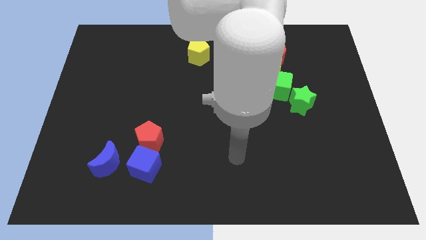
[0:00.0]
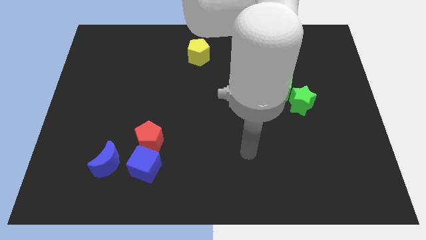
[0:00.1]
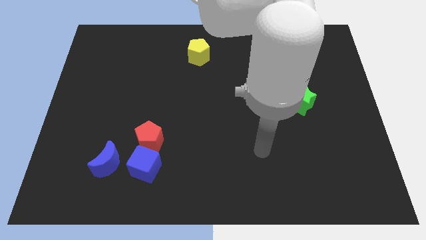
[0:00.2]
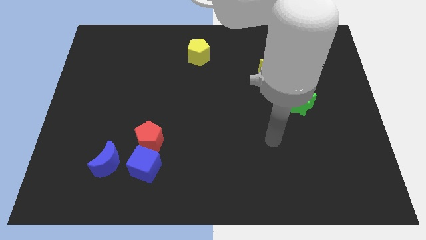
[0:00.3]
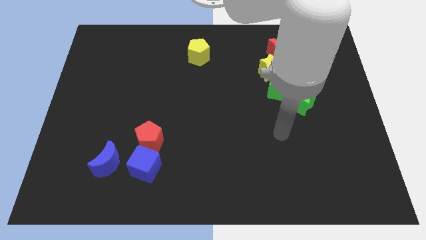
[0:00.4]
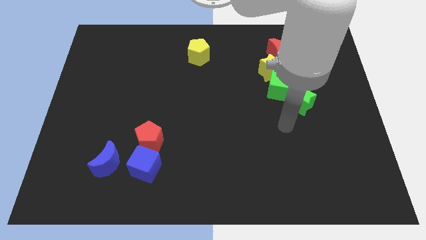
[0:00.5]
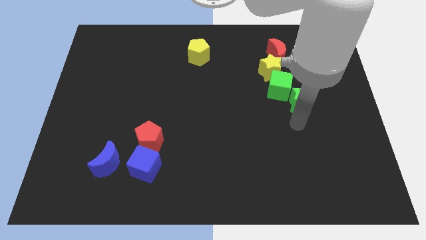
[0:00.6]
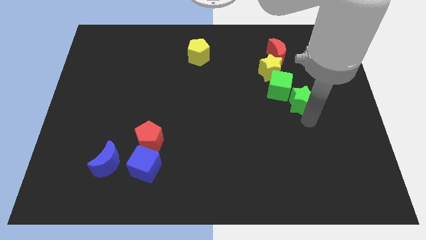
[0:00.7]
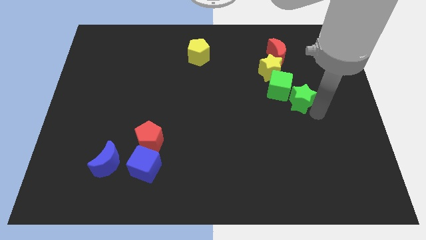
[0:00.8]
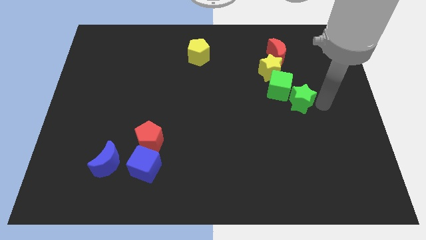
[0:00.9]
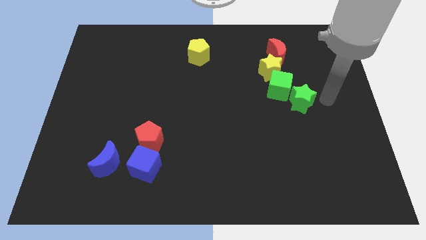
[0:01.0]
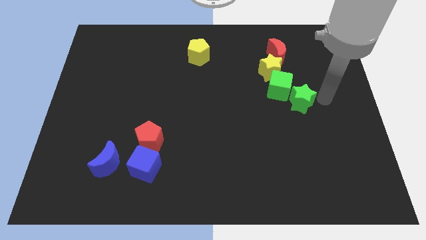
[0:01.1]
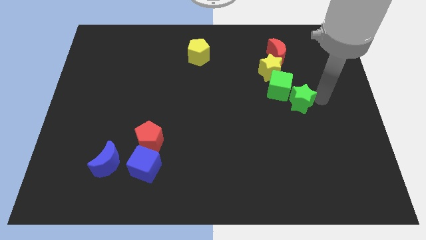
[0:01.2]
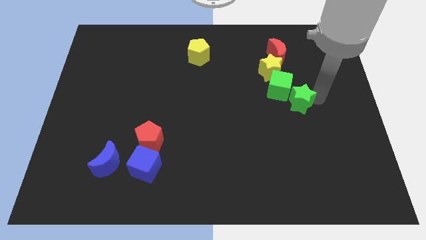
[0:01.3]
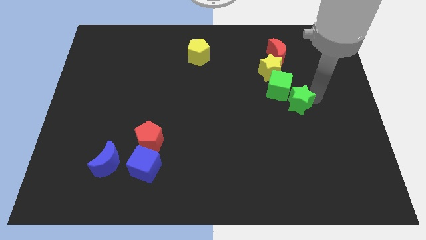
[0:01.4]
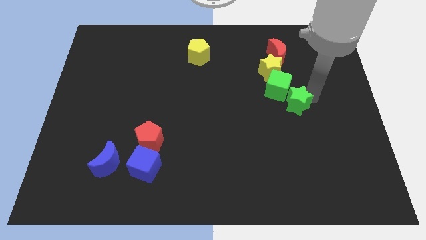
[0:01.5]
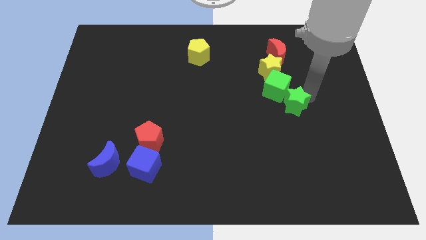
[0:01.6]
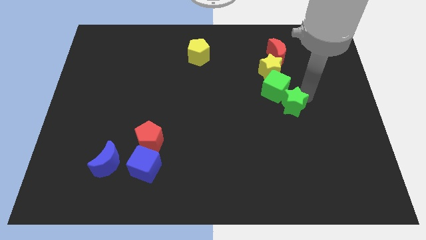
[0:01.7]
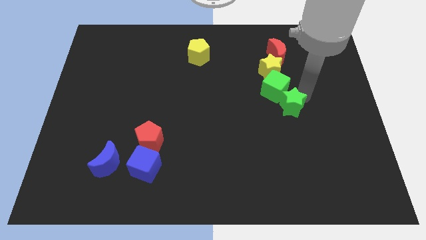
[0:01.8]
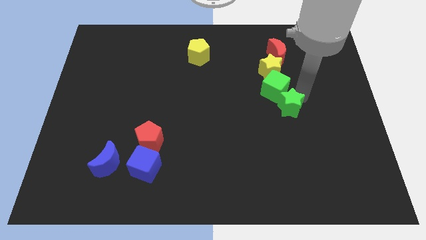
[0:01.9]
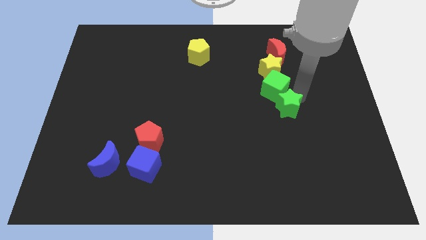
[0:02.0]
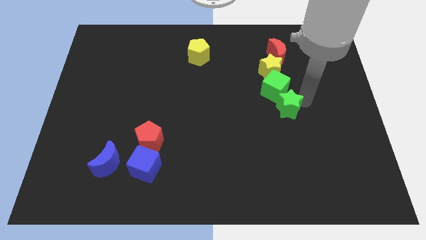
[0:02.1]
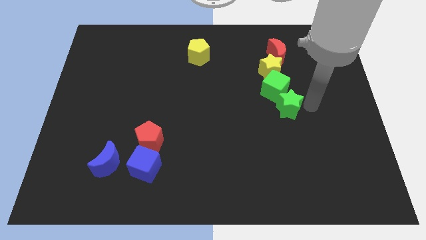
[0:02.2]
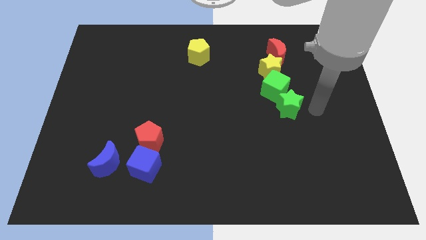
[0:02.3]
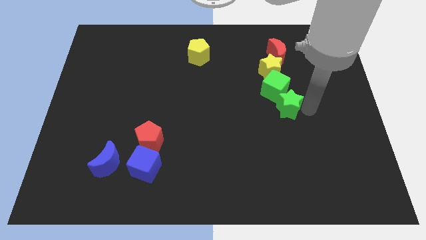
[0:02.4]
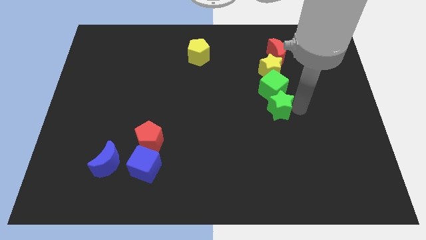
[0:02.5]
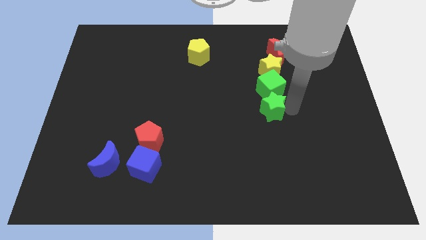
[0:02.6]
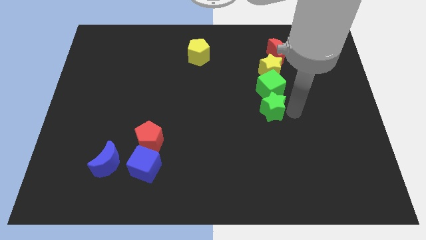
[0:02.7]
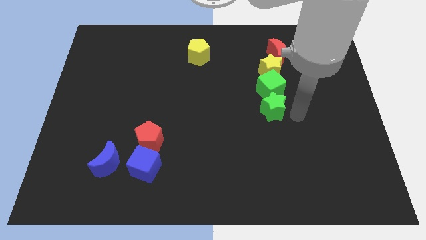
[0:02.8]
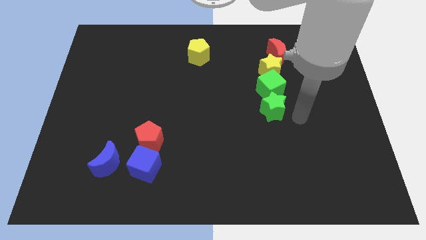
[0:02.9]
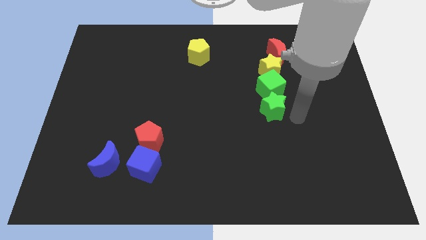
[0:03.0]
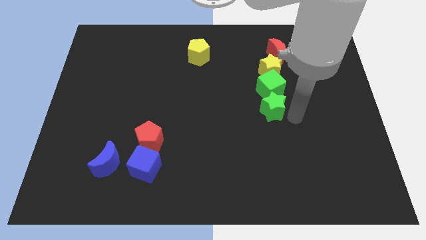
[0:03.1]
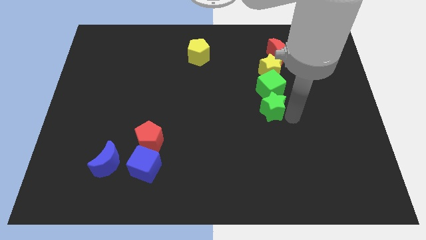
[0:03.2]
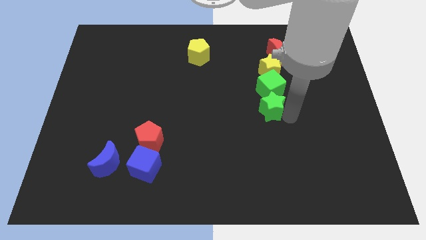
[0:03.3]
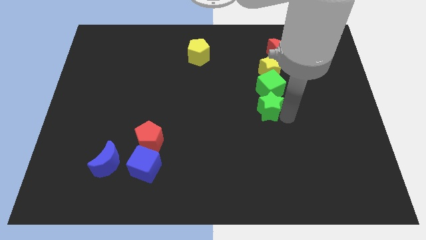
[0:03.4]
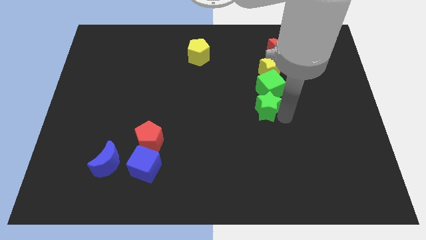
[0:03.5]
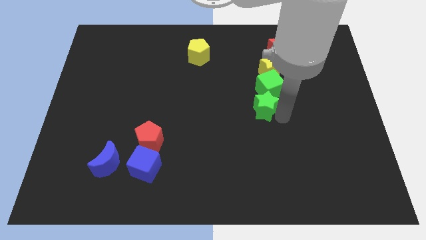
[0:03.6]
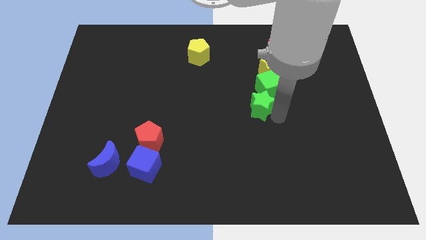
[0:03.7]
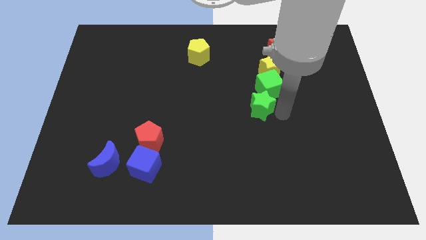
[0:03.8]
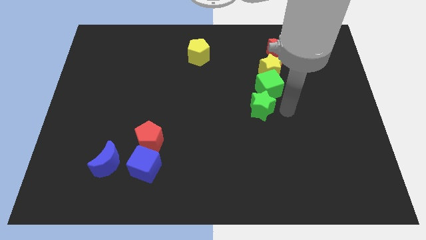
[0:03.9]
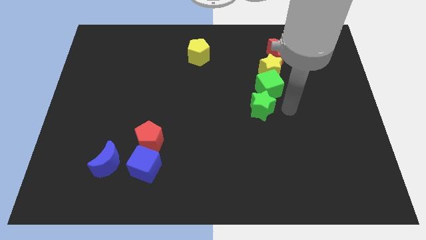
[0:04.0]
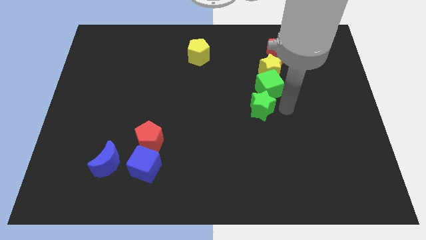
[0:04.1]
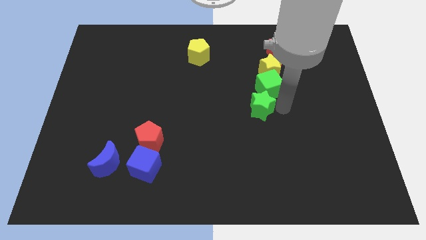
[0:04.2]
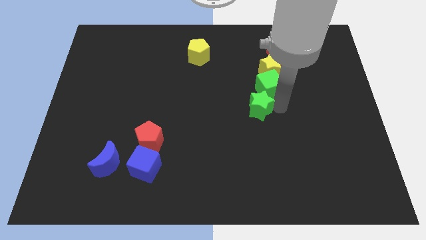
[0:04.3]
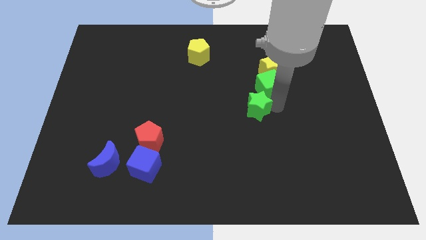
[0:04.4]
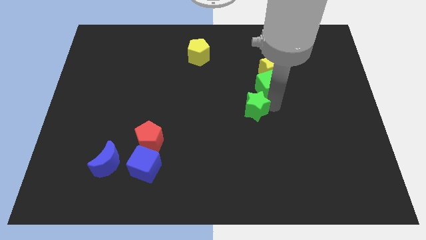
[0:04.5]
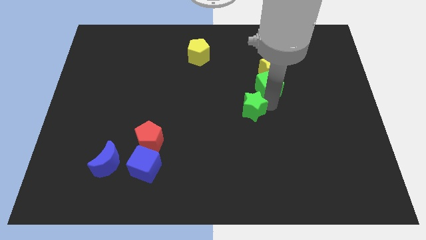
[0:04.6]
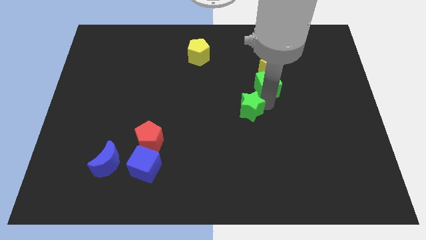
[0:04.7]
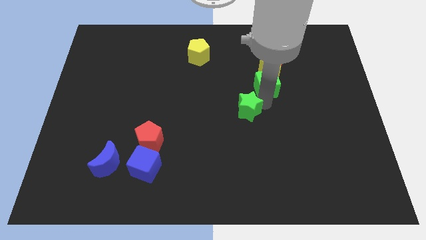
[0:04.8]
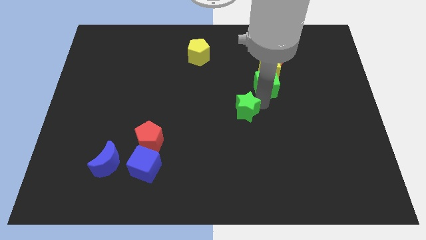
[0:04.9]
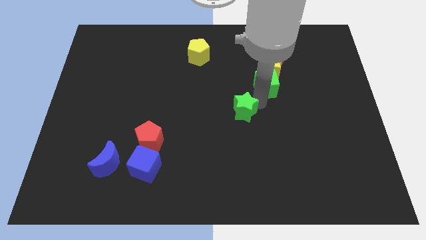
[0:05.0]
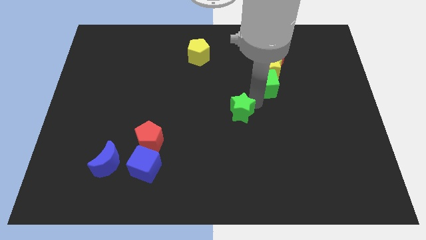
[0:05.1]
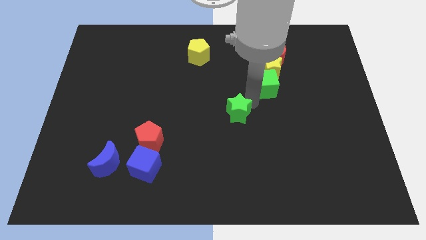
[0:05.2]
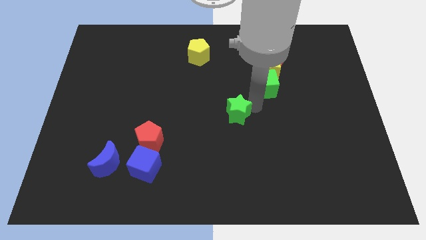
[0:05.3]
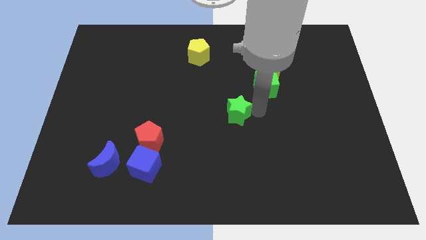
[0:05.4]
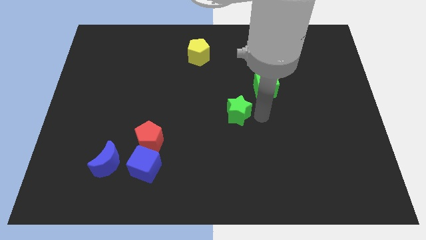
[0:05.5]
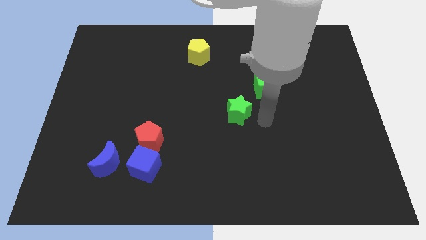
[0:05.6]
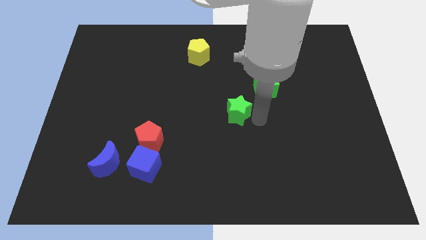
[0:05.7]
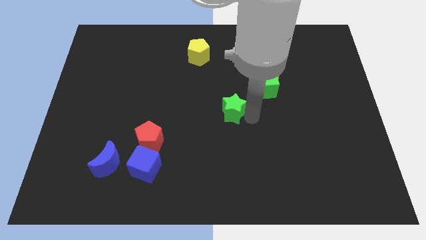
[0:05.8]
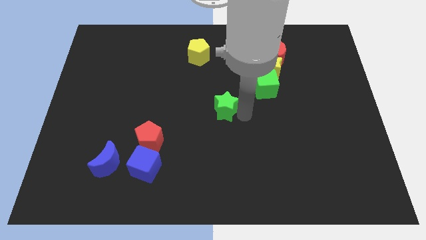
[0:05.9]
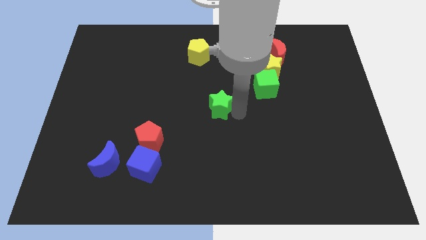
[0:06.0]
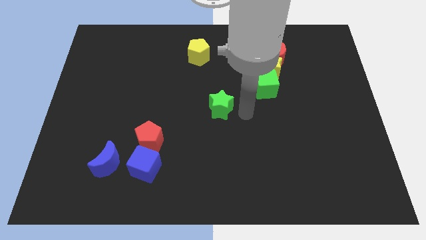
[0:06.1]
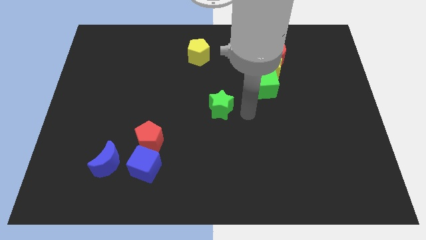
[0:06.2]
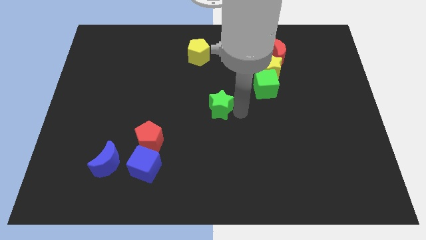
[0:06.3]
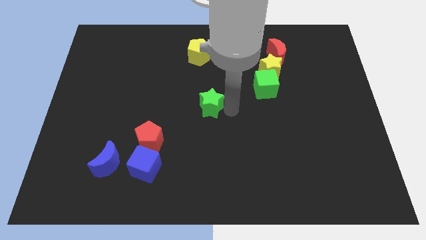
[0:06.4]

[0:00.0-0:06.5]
push the green star left

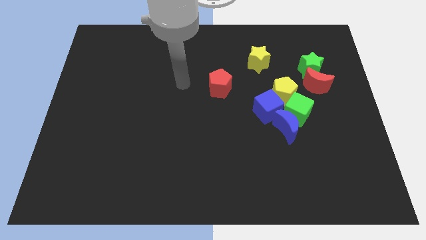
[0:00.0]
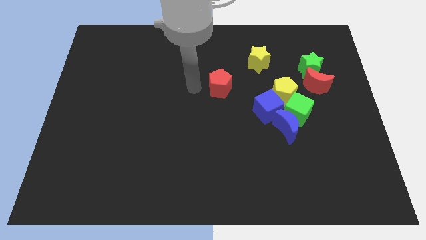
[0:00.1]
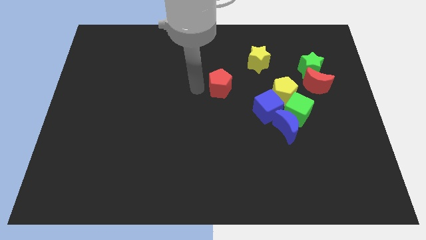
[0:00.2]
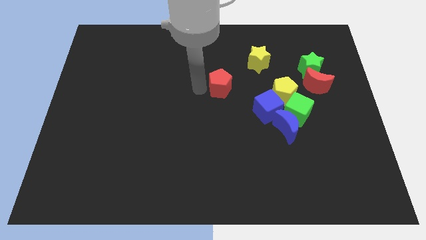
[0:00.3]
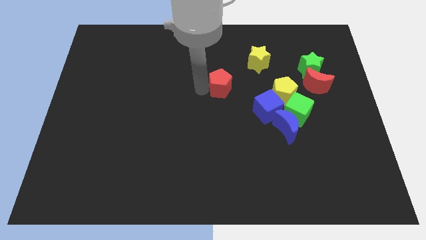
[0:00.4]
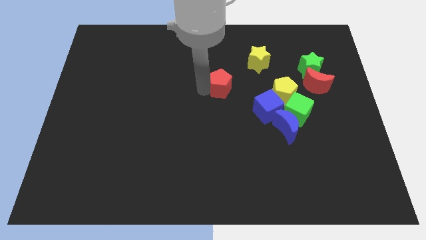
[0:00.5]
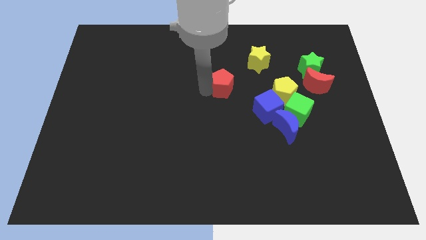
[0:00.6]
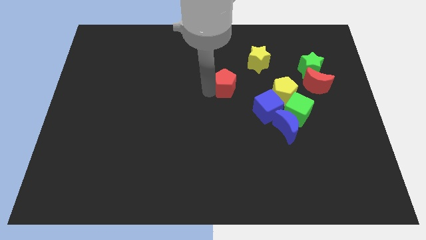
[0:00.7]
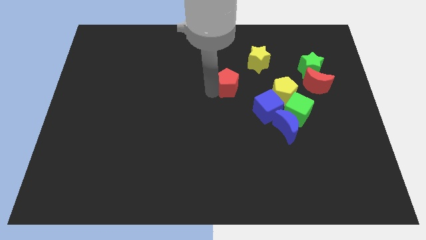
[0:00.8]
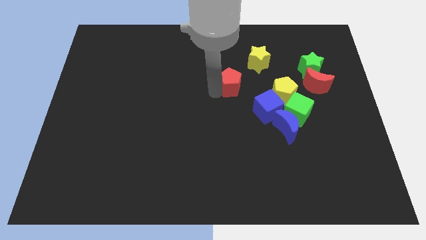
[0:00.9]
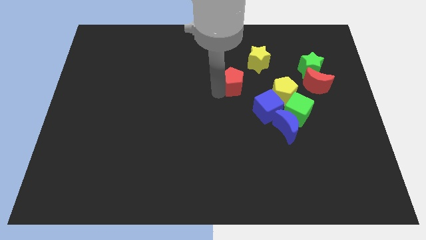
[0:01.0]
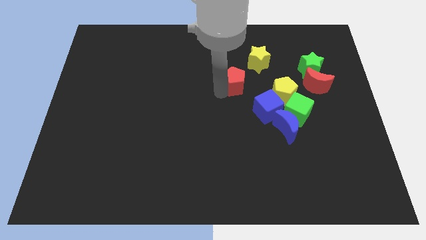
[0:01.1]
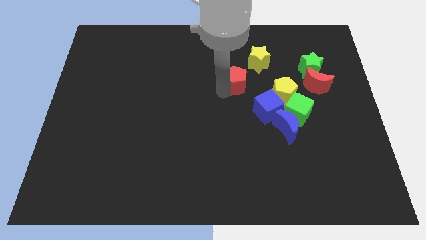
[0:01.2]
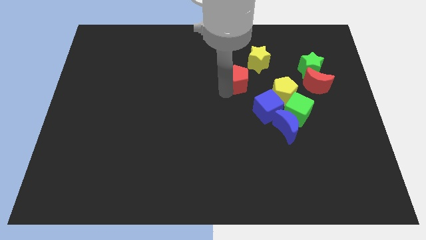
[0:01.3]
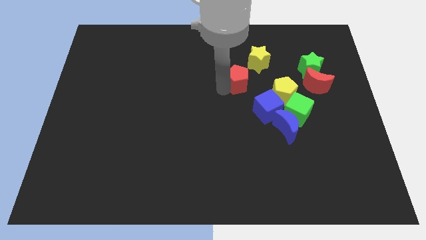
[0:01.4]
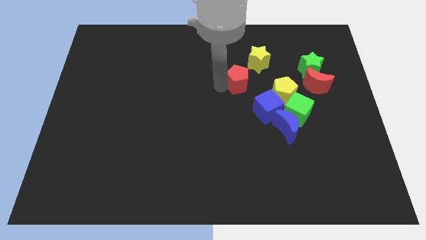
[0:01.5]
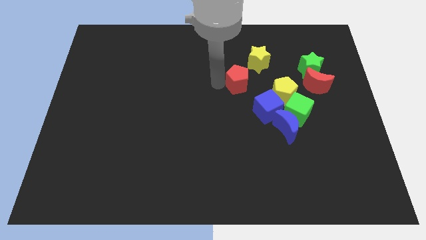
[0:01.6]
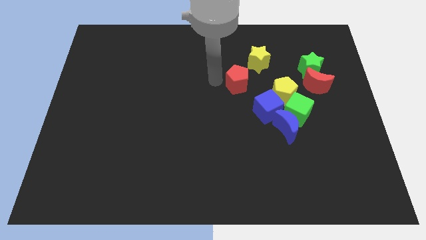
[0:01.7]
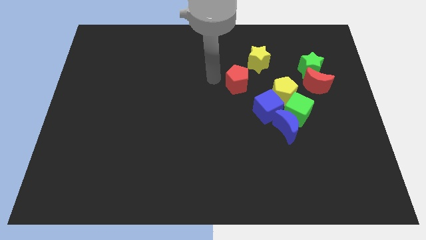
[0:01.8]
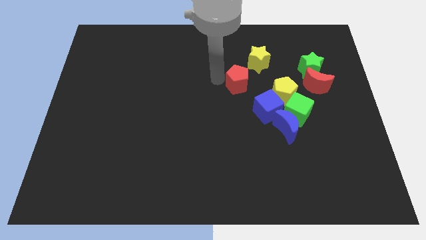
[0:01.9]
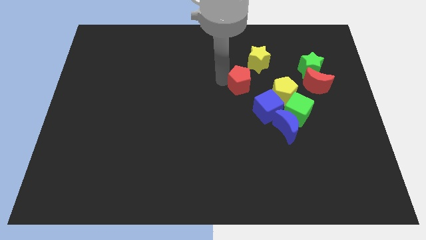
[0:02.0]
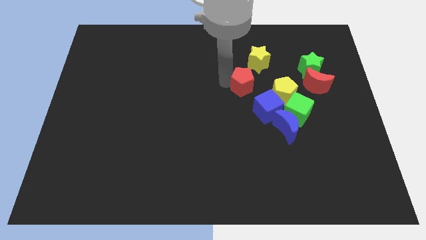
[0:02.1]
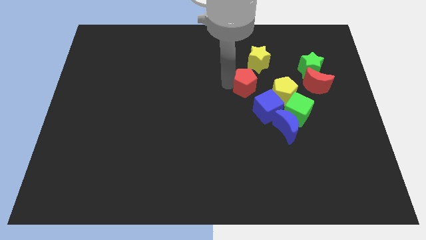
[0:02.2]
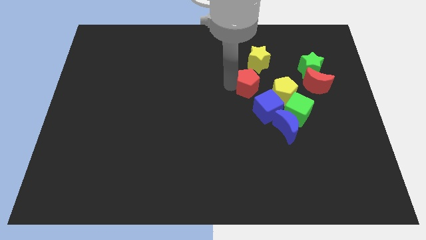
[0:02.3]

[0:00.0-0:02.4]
push the red pentagon a bit right
